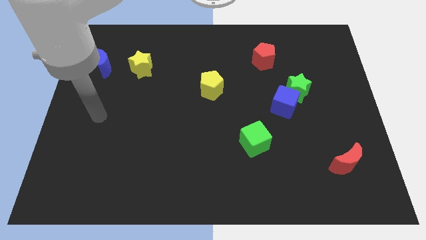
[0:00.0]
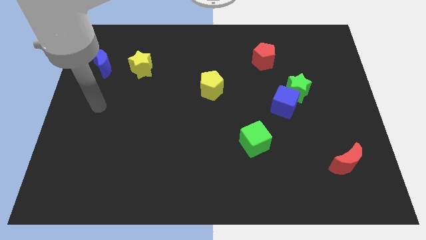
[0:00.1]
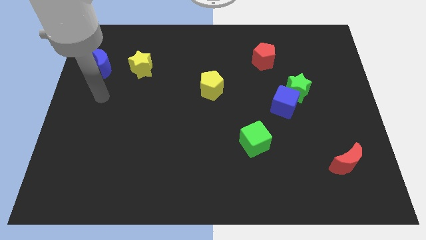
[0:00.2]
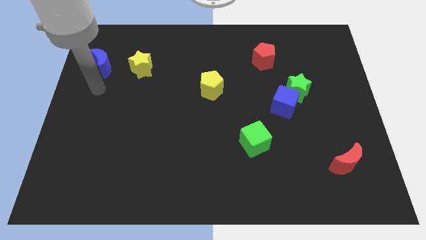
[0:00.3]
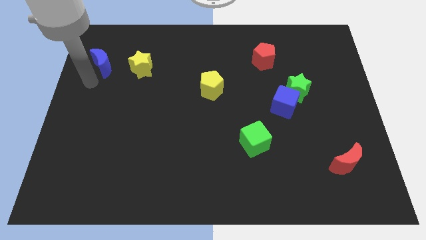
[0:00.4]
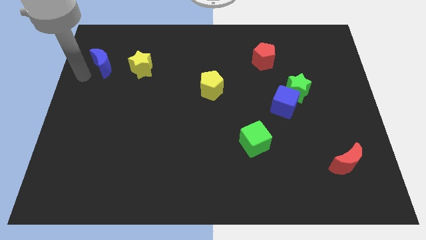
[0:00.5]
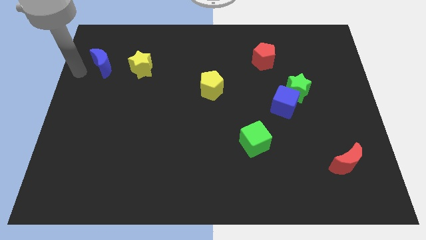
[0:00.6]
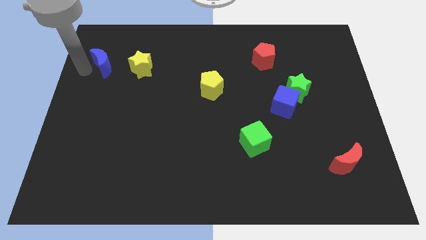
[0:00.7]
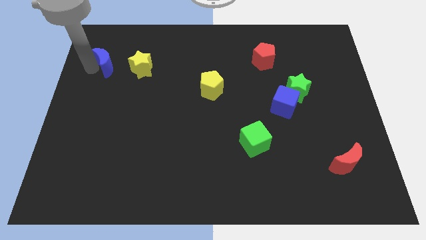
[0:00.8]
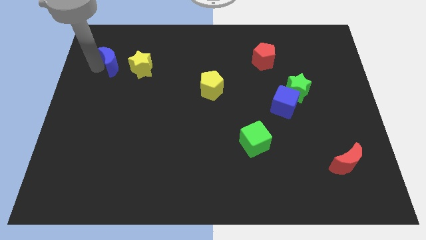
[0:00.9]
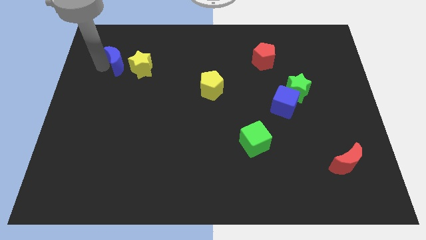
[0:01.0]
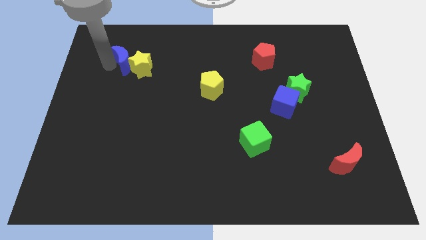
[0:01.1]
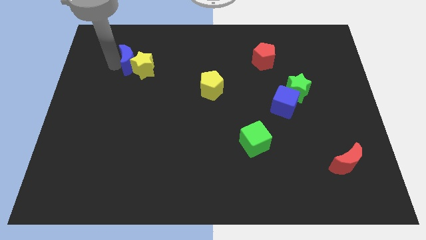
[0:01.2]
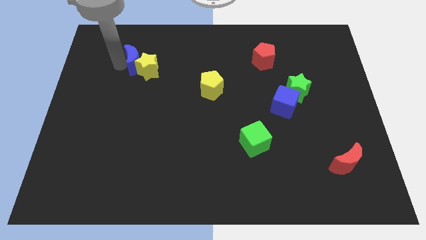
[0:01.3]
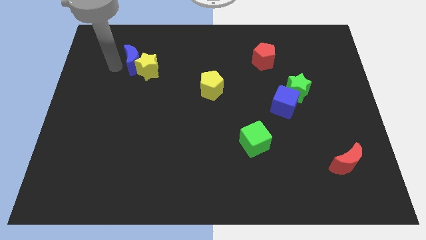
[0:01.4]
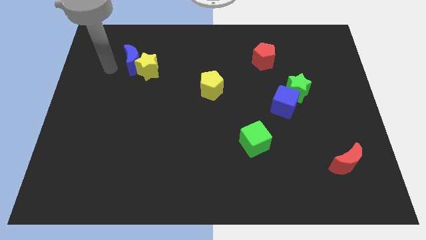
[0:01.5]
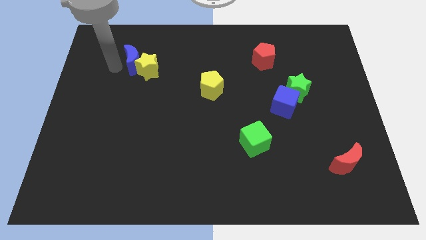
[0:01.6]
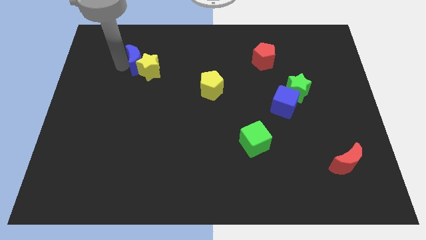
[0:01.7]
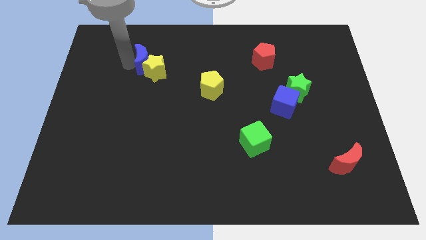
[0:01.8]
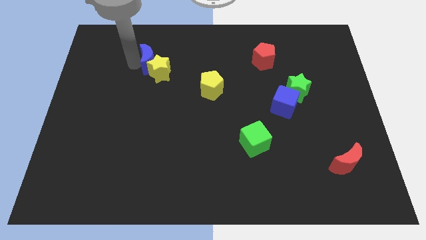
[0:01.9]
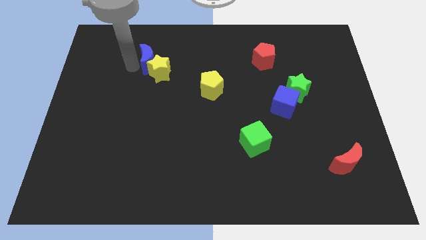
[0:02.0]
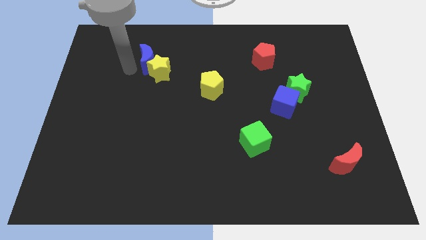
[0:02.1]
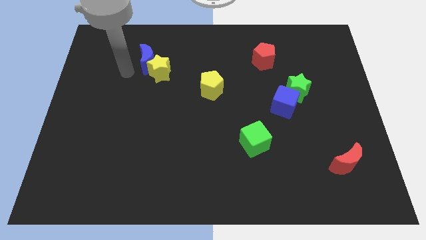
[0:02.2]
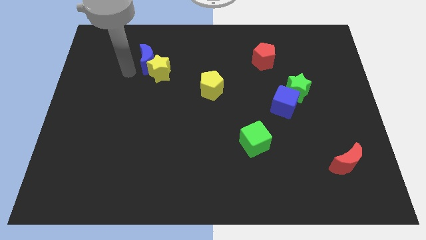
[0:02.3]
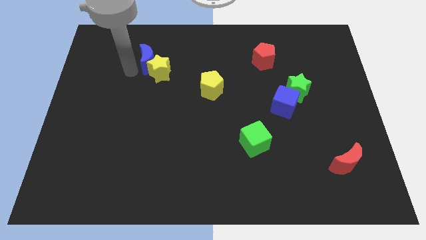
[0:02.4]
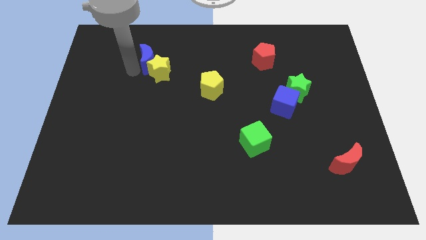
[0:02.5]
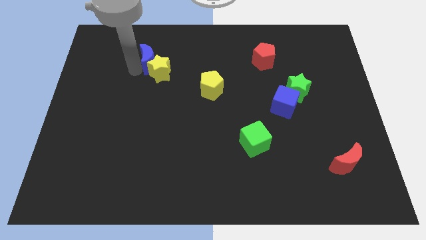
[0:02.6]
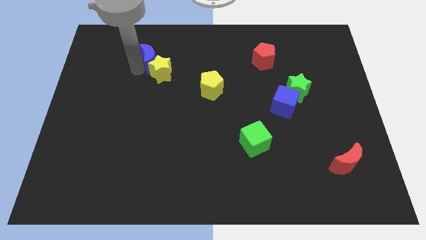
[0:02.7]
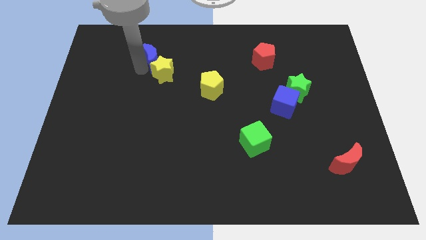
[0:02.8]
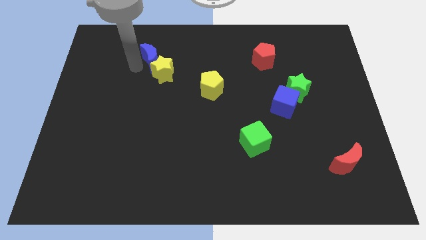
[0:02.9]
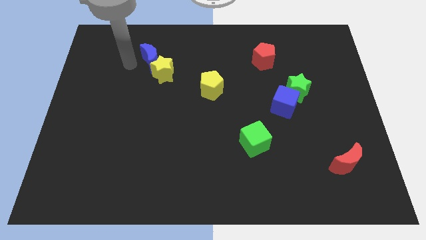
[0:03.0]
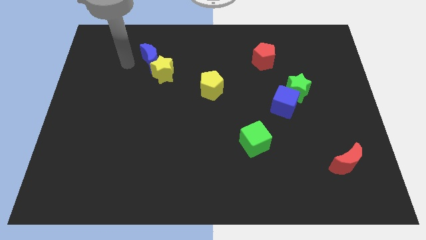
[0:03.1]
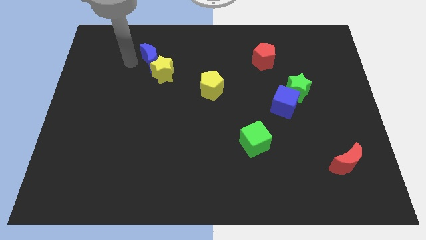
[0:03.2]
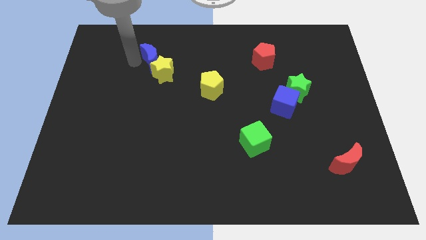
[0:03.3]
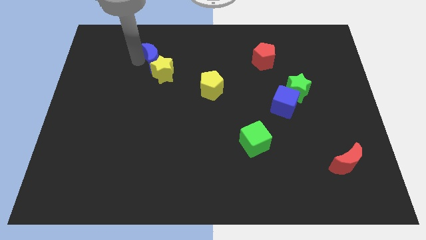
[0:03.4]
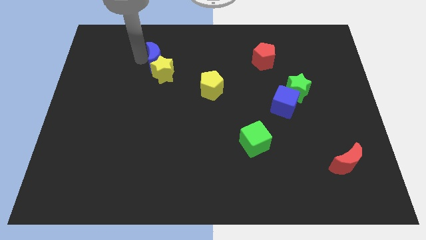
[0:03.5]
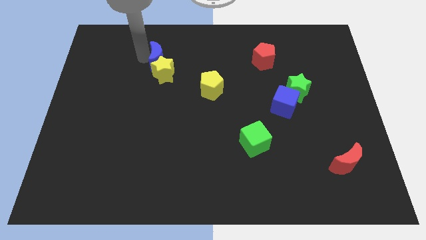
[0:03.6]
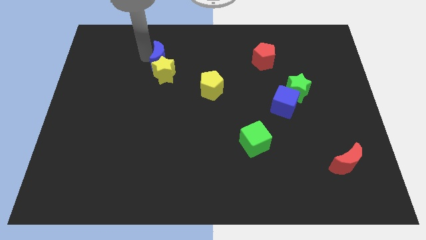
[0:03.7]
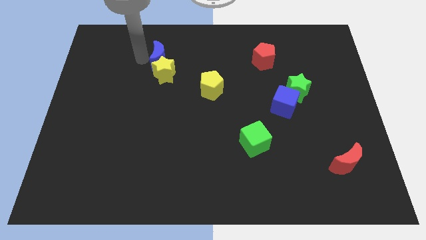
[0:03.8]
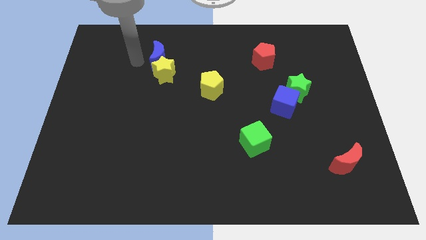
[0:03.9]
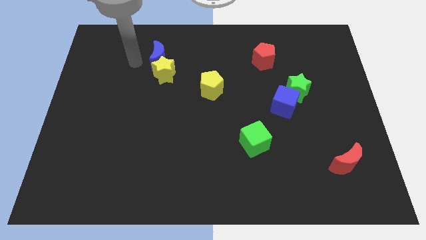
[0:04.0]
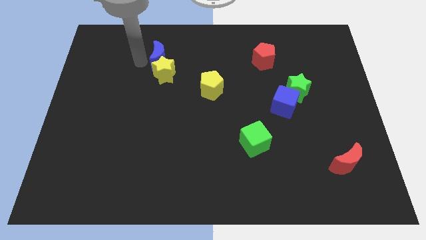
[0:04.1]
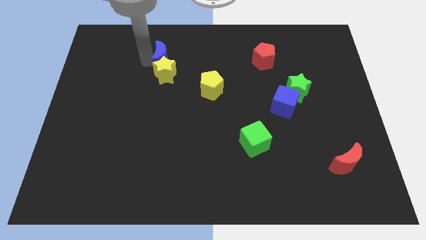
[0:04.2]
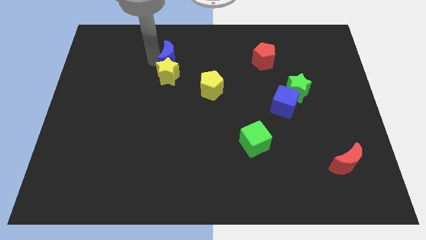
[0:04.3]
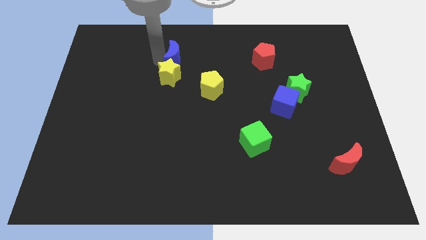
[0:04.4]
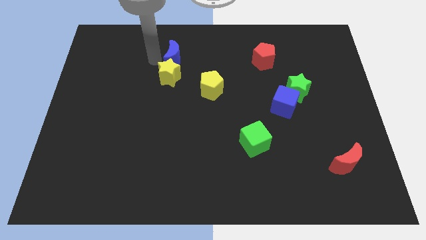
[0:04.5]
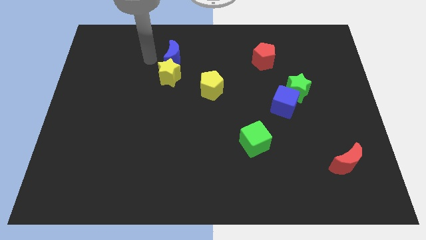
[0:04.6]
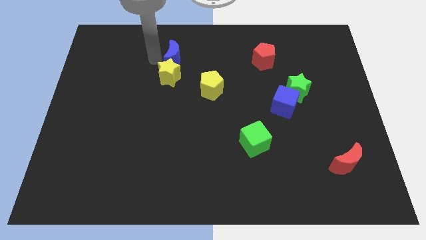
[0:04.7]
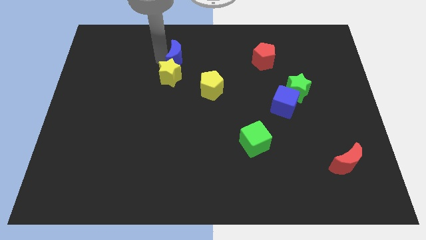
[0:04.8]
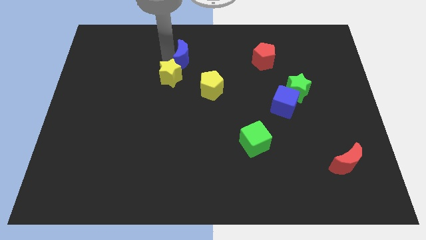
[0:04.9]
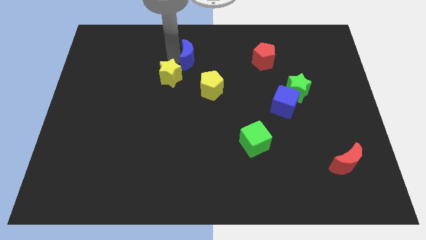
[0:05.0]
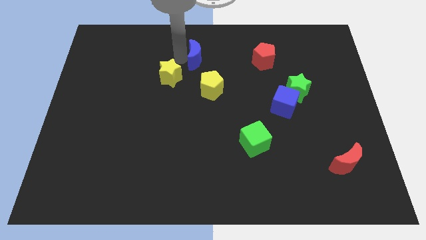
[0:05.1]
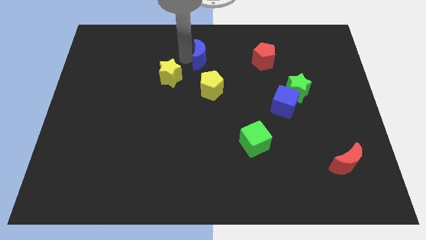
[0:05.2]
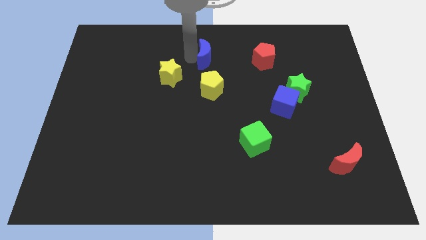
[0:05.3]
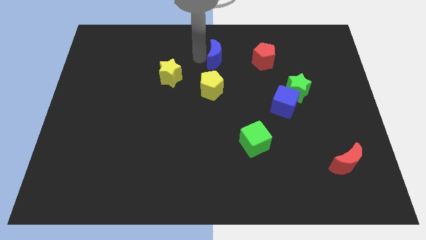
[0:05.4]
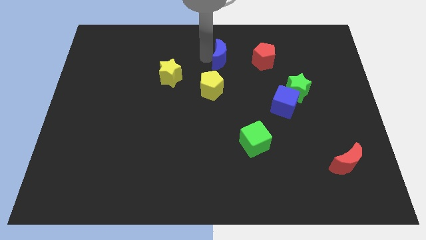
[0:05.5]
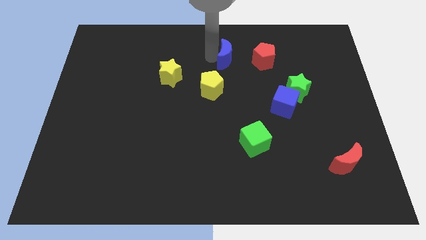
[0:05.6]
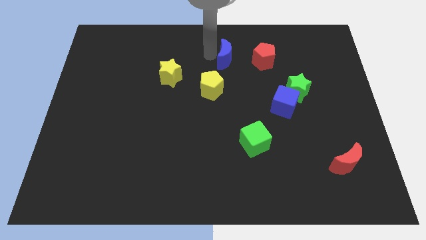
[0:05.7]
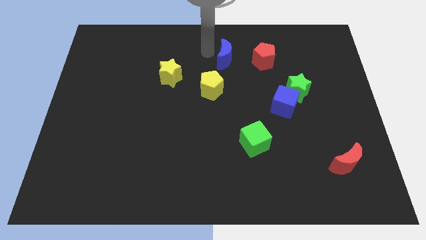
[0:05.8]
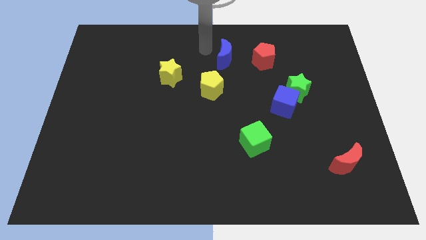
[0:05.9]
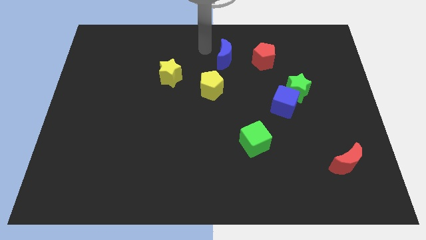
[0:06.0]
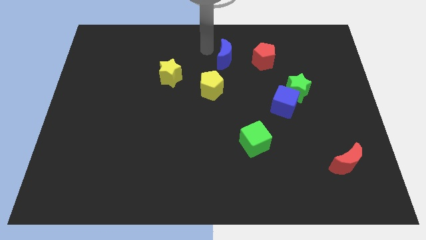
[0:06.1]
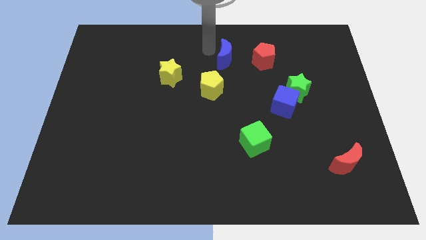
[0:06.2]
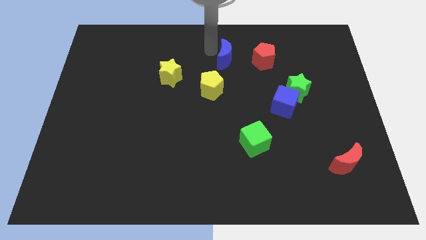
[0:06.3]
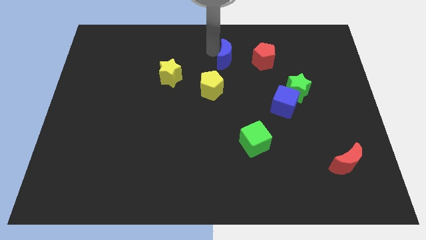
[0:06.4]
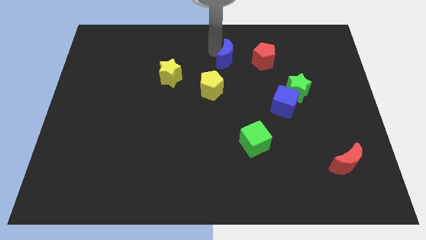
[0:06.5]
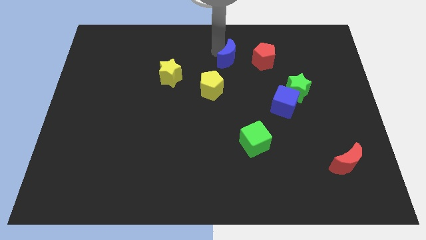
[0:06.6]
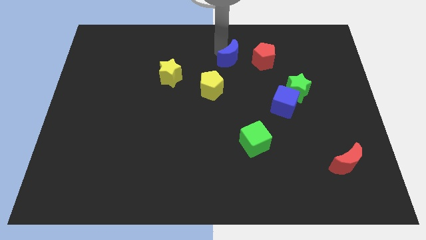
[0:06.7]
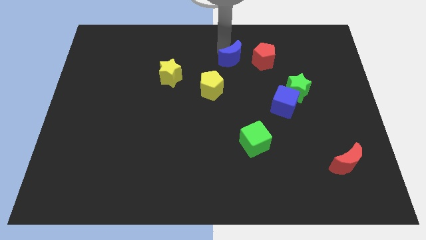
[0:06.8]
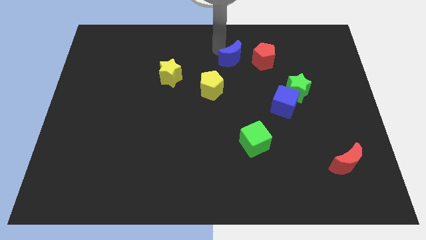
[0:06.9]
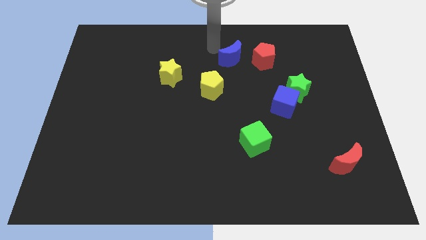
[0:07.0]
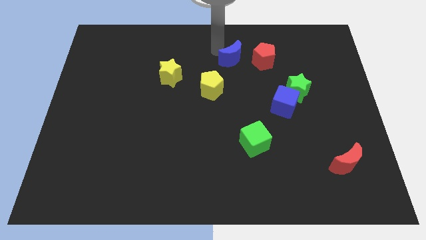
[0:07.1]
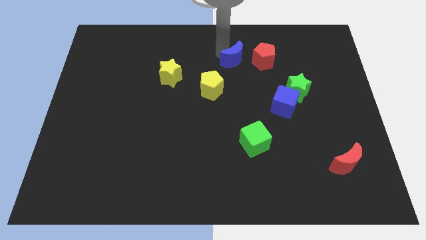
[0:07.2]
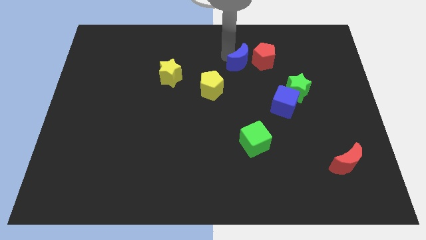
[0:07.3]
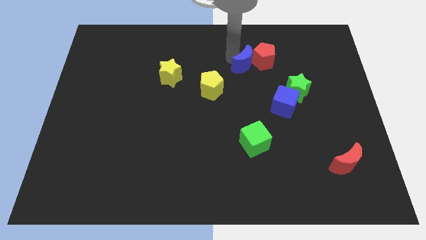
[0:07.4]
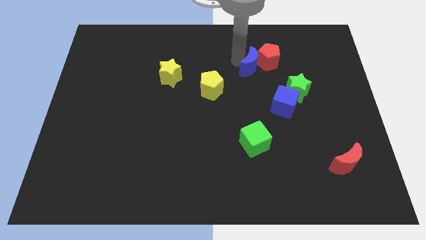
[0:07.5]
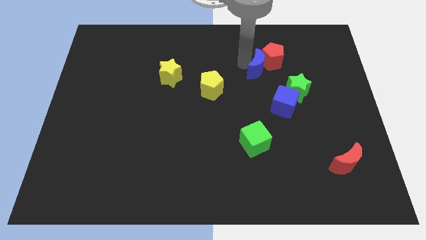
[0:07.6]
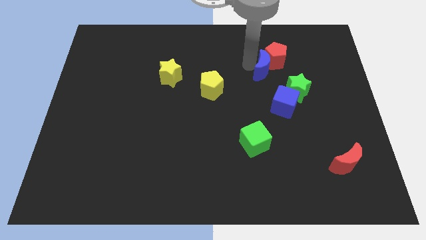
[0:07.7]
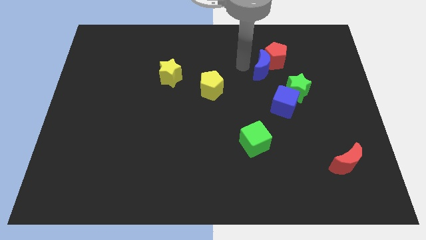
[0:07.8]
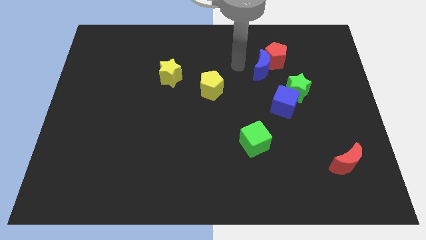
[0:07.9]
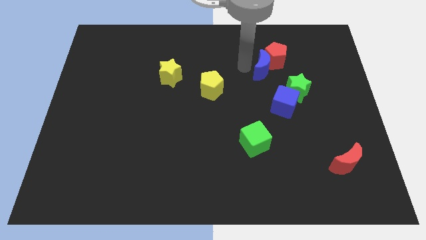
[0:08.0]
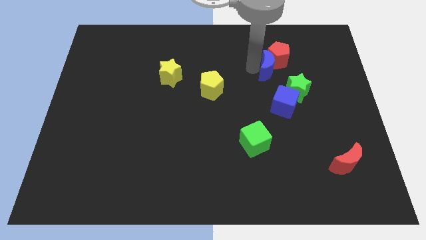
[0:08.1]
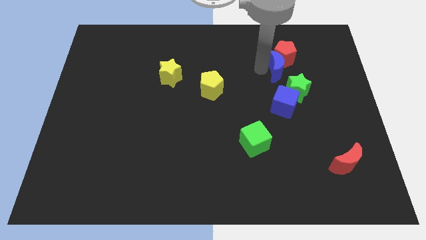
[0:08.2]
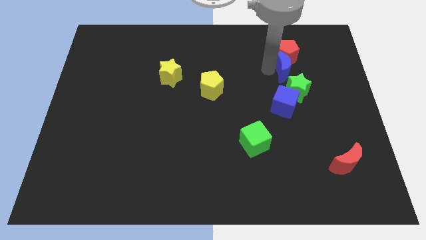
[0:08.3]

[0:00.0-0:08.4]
slide the blue moon to the bottom right of the red pentagon
